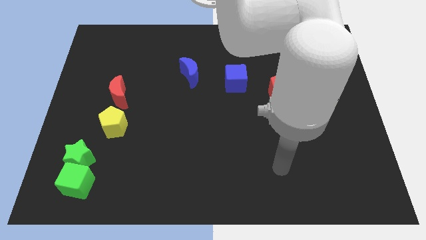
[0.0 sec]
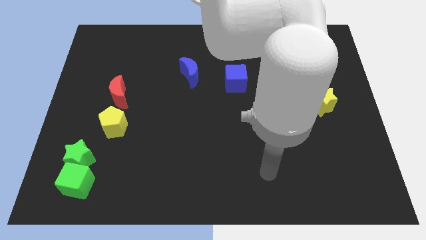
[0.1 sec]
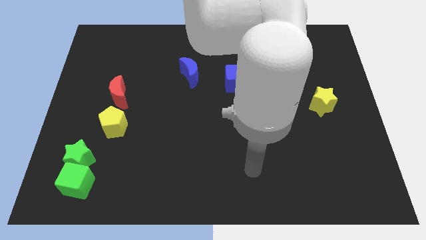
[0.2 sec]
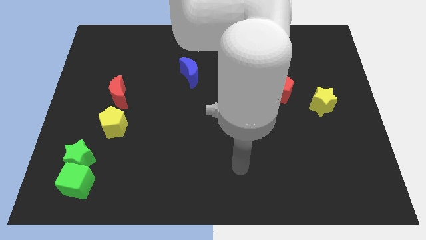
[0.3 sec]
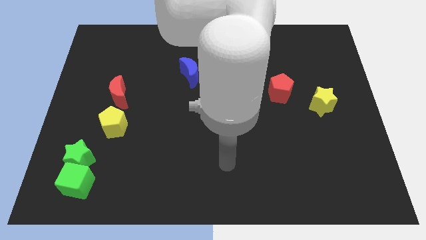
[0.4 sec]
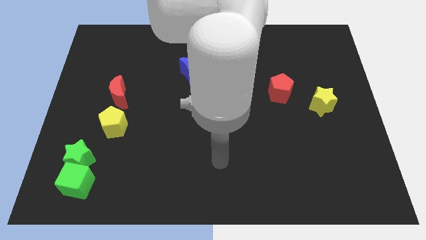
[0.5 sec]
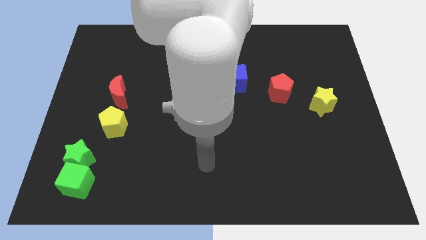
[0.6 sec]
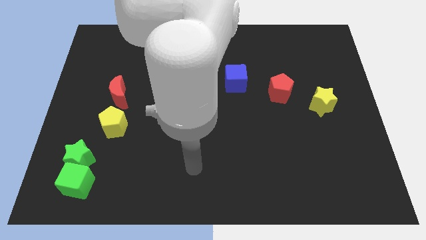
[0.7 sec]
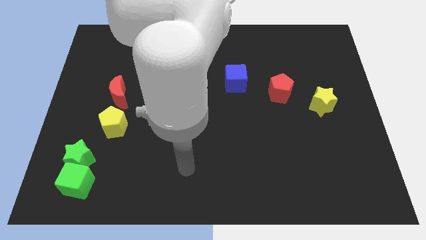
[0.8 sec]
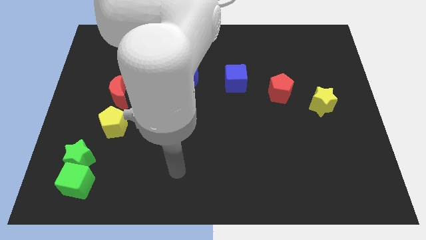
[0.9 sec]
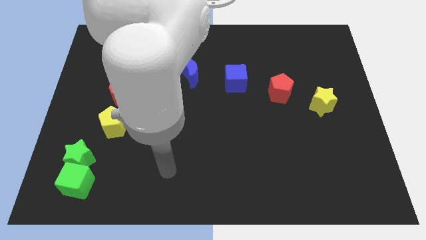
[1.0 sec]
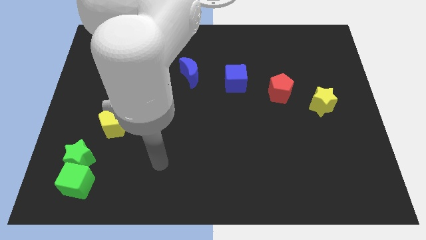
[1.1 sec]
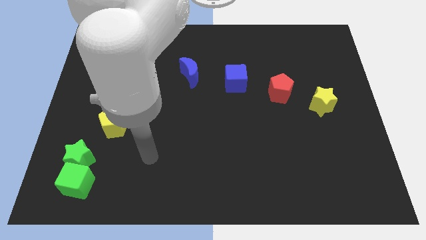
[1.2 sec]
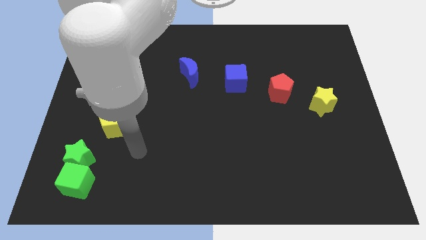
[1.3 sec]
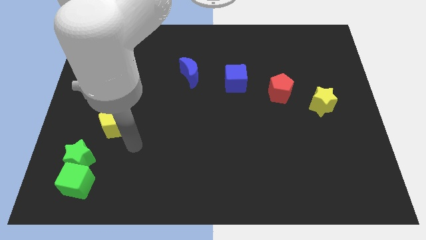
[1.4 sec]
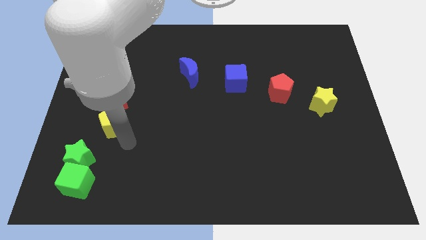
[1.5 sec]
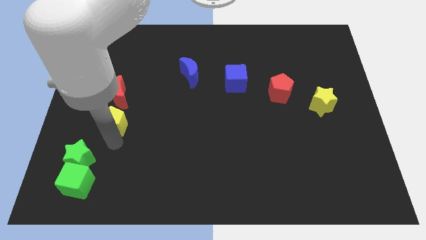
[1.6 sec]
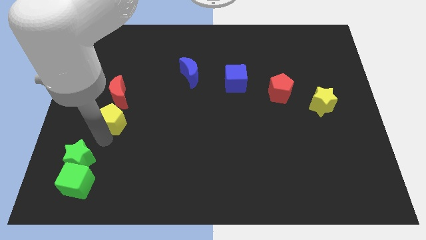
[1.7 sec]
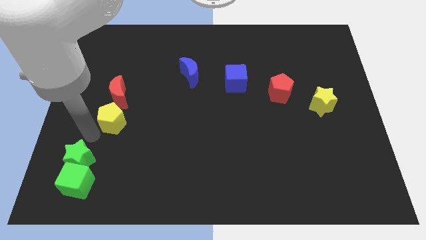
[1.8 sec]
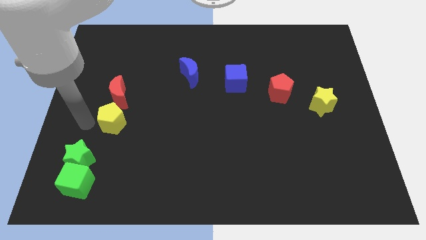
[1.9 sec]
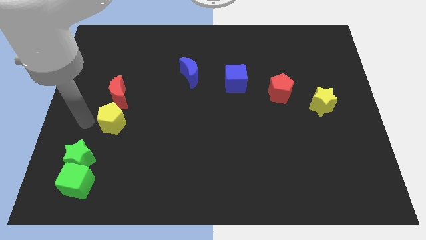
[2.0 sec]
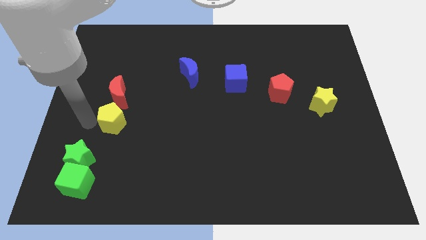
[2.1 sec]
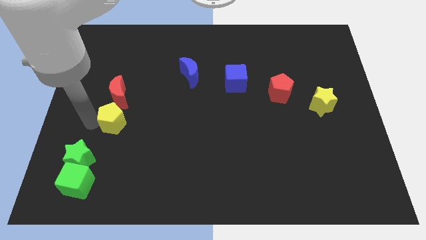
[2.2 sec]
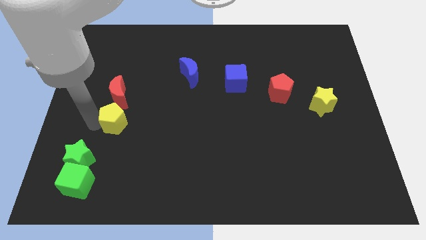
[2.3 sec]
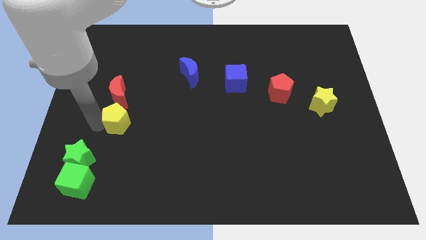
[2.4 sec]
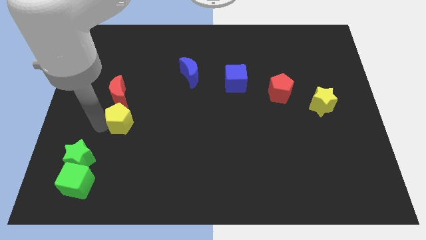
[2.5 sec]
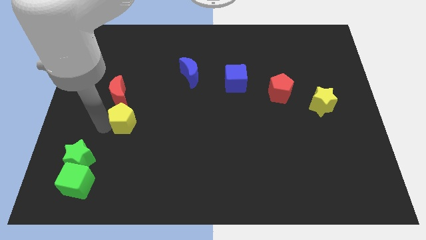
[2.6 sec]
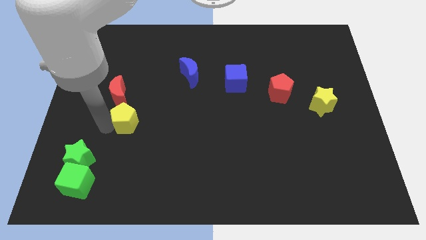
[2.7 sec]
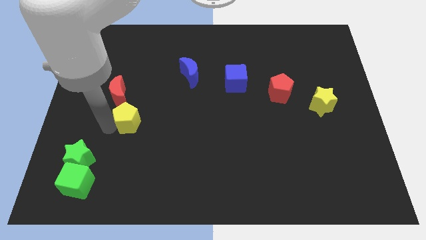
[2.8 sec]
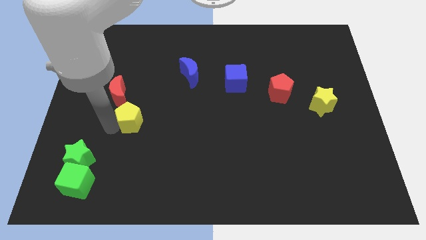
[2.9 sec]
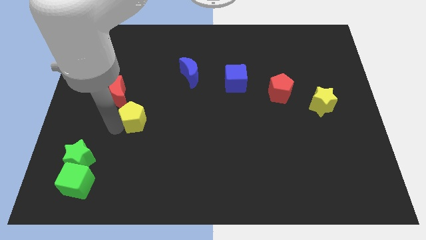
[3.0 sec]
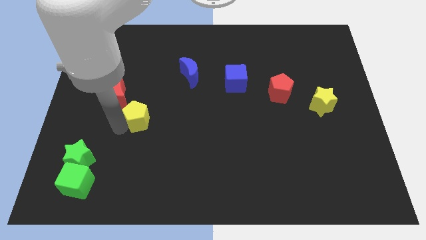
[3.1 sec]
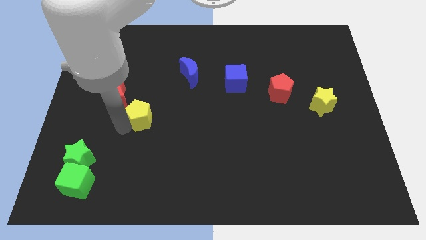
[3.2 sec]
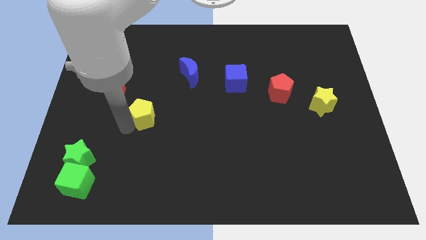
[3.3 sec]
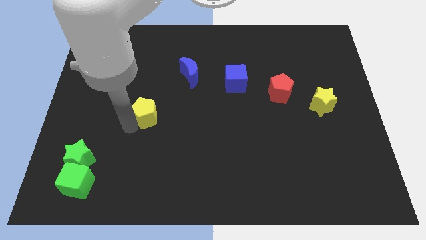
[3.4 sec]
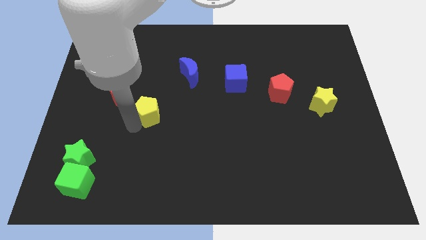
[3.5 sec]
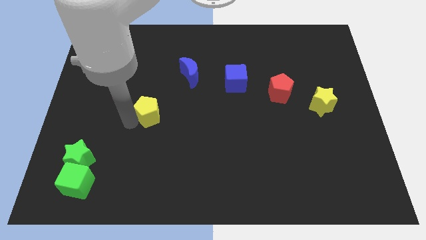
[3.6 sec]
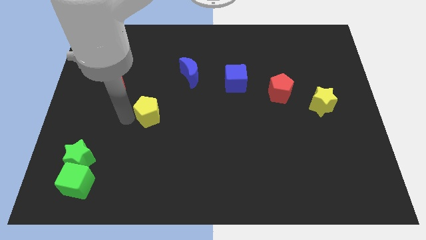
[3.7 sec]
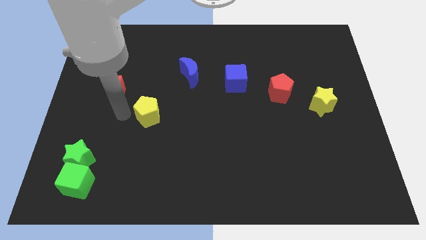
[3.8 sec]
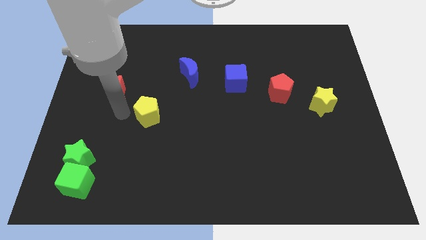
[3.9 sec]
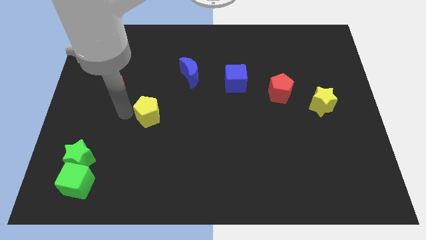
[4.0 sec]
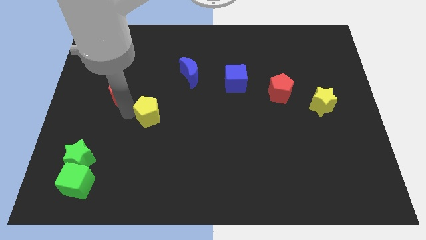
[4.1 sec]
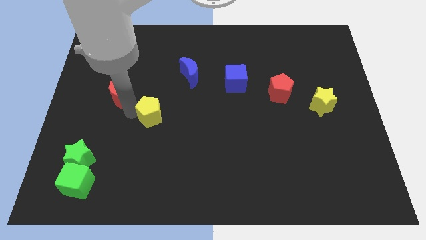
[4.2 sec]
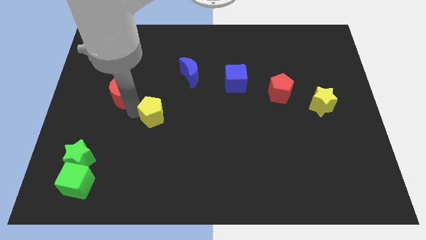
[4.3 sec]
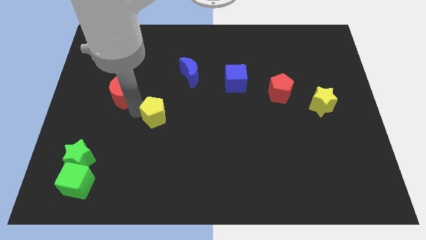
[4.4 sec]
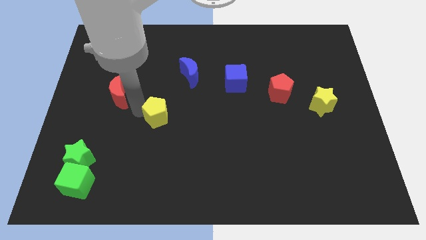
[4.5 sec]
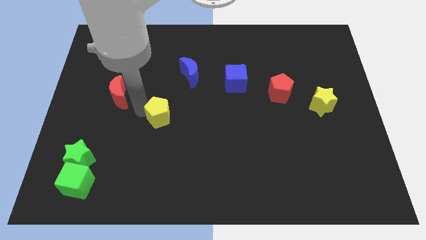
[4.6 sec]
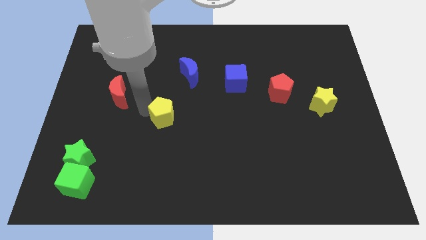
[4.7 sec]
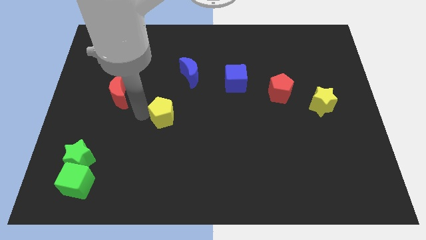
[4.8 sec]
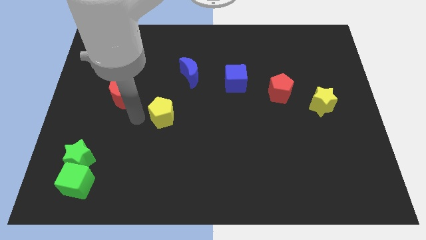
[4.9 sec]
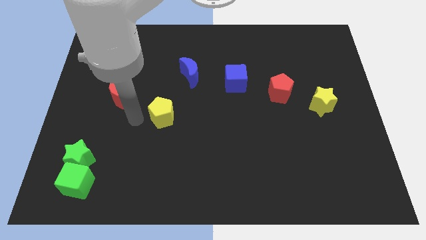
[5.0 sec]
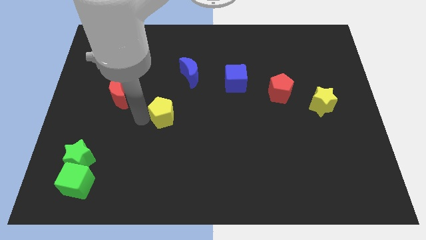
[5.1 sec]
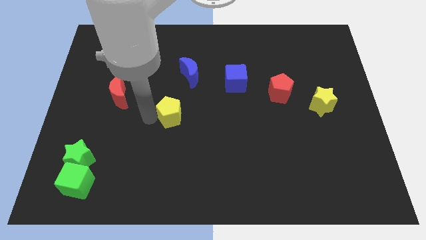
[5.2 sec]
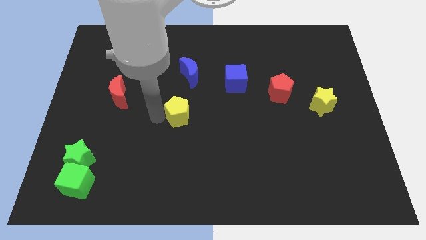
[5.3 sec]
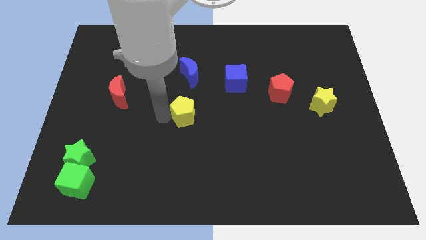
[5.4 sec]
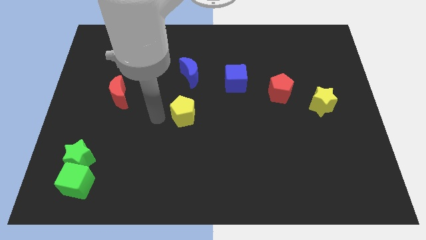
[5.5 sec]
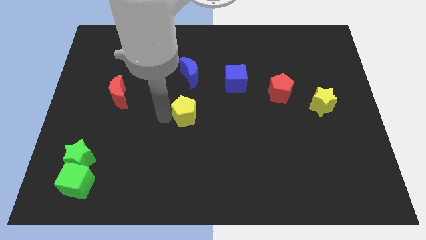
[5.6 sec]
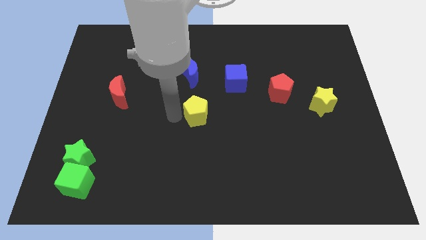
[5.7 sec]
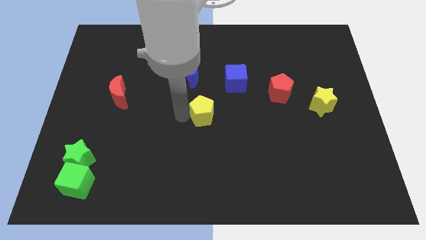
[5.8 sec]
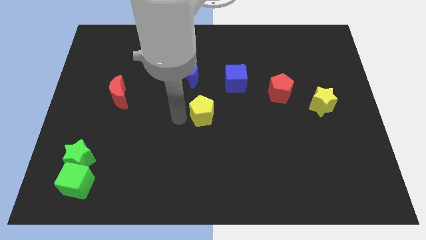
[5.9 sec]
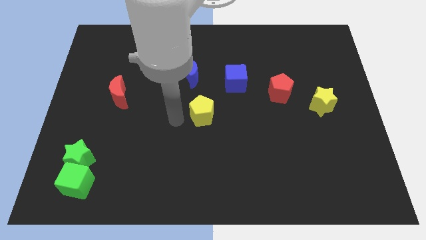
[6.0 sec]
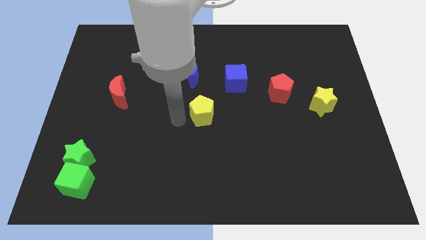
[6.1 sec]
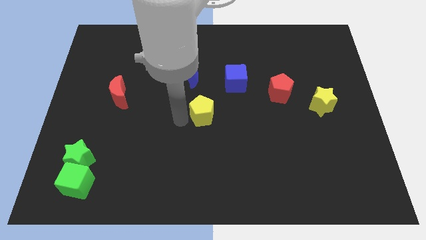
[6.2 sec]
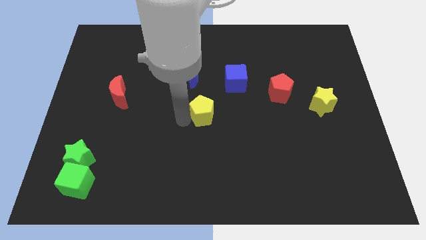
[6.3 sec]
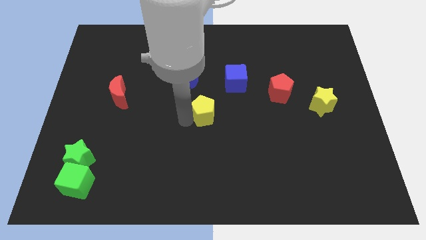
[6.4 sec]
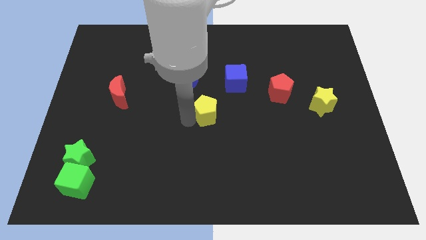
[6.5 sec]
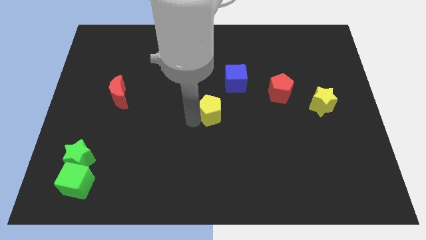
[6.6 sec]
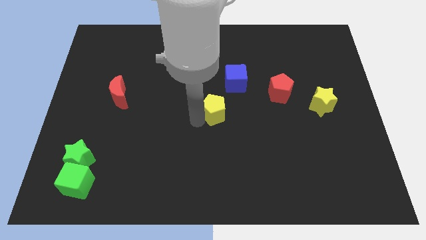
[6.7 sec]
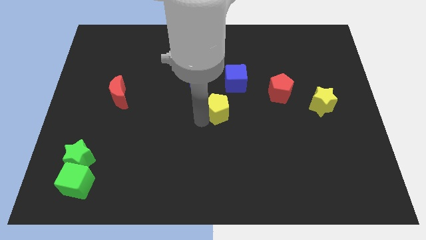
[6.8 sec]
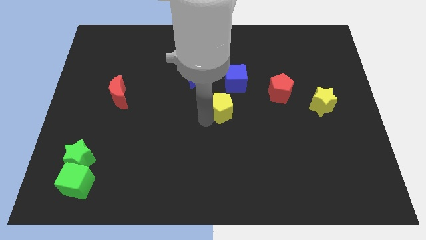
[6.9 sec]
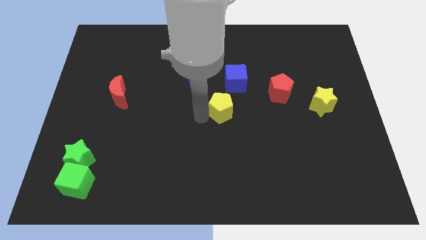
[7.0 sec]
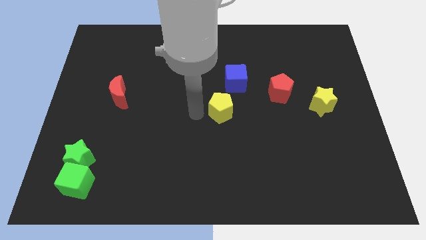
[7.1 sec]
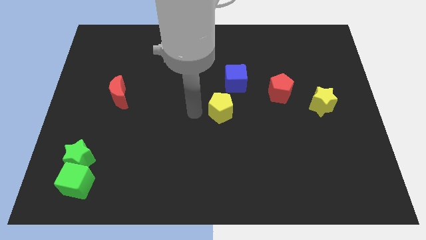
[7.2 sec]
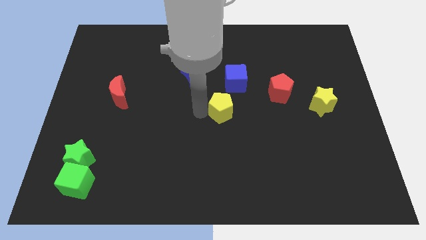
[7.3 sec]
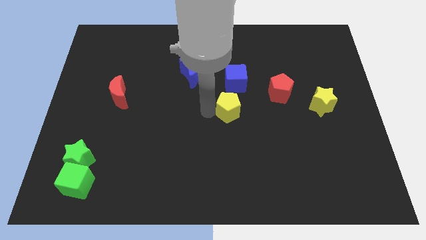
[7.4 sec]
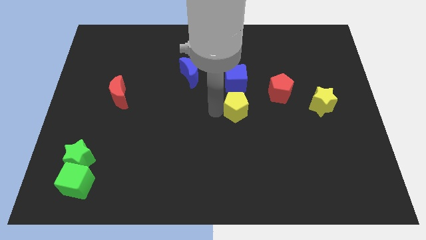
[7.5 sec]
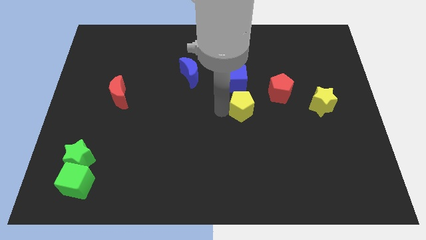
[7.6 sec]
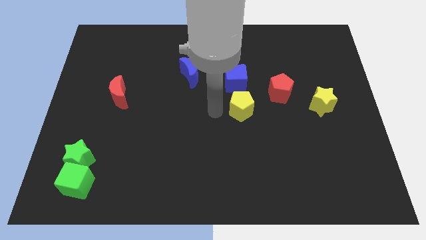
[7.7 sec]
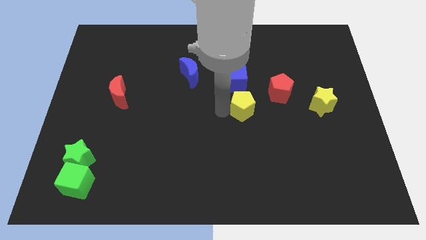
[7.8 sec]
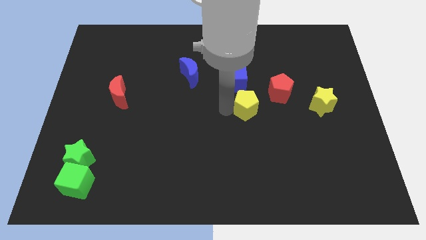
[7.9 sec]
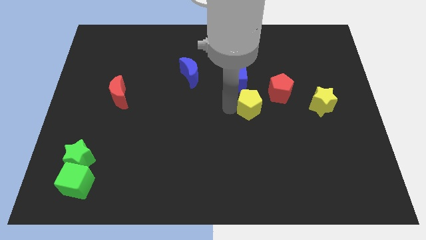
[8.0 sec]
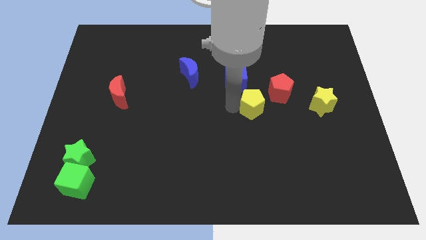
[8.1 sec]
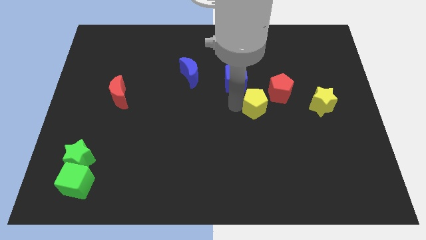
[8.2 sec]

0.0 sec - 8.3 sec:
put the yellow pentagon just left of the yellow star
